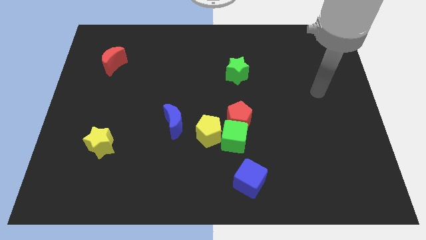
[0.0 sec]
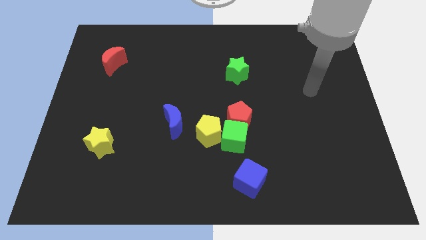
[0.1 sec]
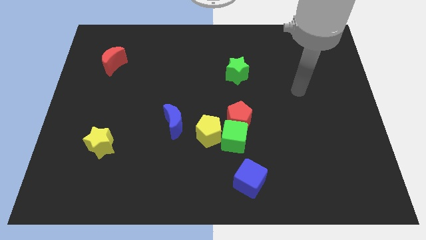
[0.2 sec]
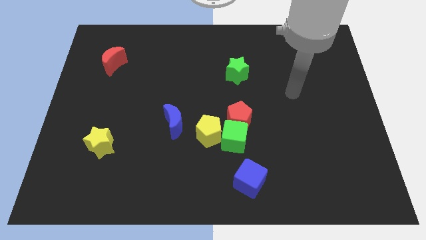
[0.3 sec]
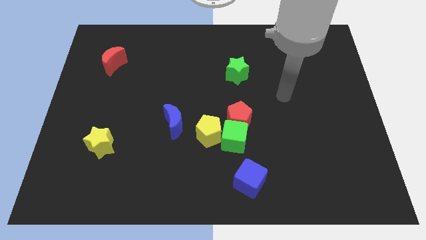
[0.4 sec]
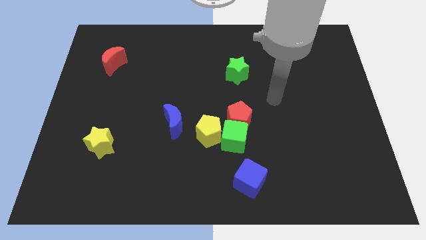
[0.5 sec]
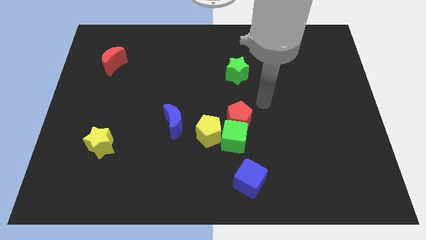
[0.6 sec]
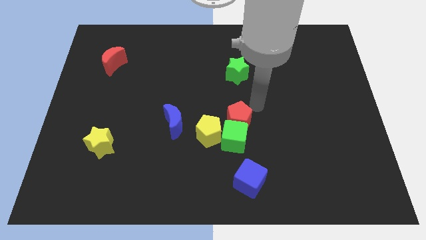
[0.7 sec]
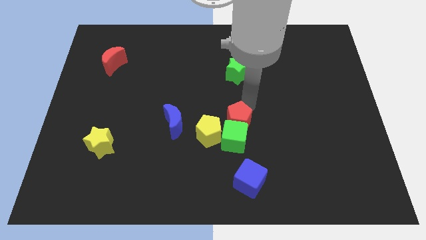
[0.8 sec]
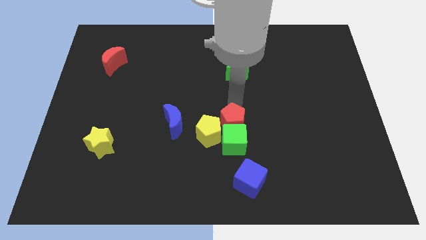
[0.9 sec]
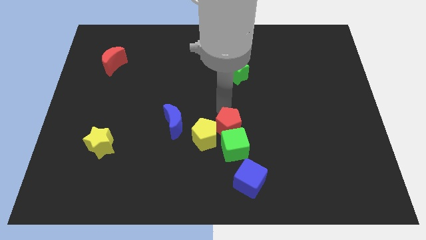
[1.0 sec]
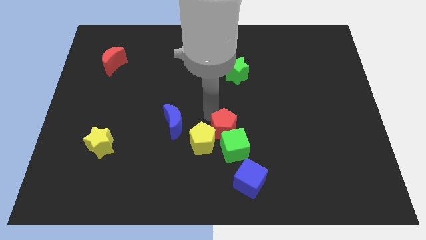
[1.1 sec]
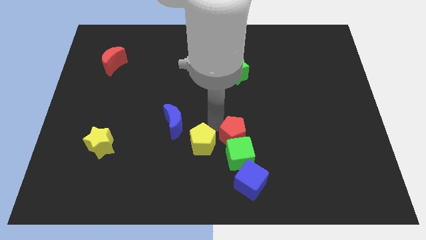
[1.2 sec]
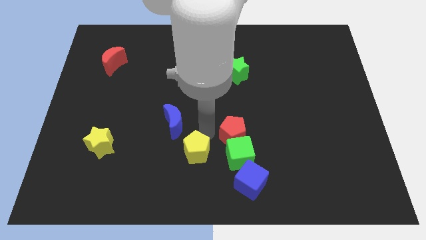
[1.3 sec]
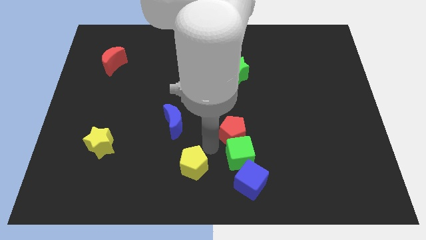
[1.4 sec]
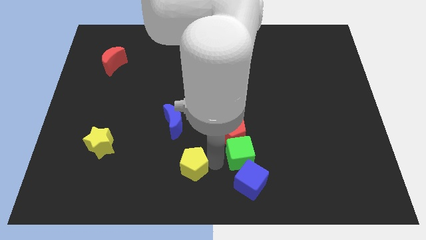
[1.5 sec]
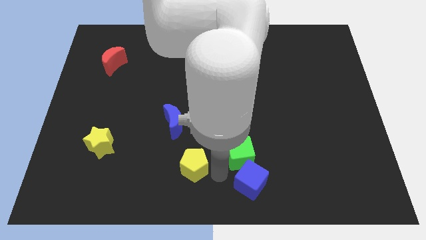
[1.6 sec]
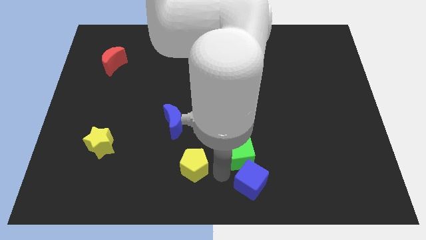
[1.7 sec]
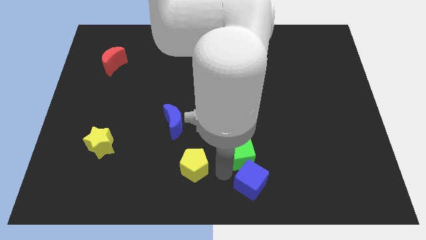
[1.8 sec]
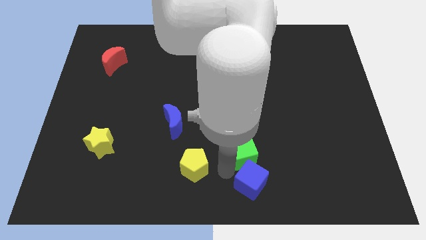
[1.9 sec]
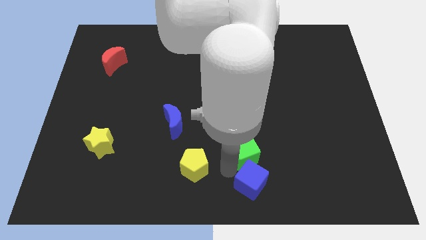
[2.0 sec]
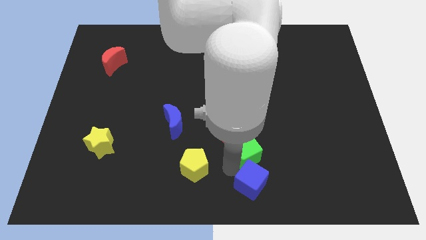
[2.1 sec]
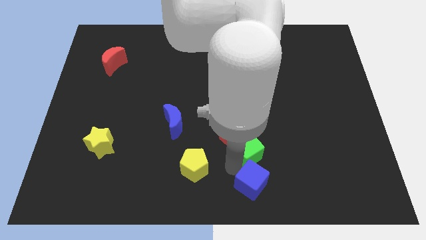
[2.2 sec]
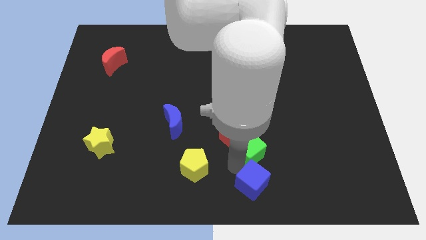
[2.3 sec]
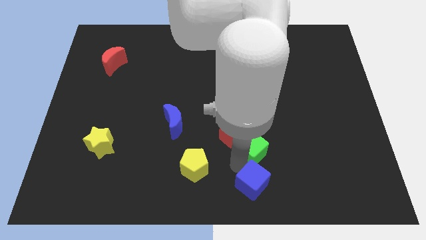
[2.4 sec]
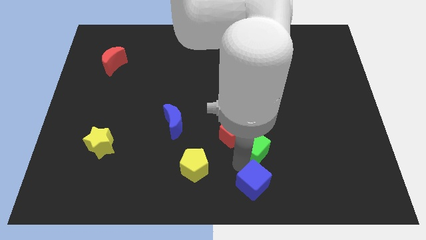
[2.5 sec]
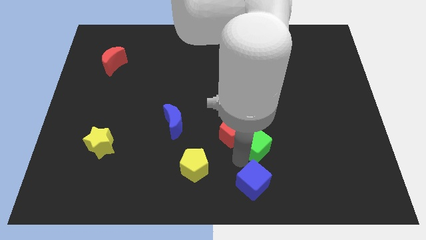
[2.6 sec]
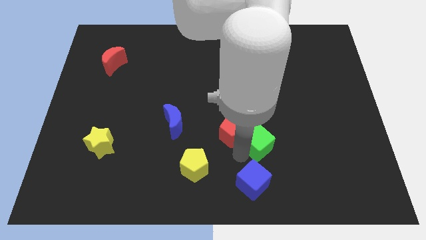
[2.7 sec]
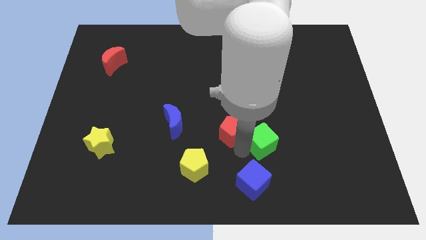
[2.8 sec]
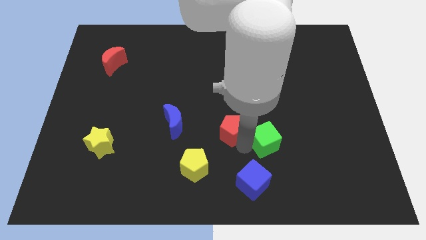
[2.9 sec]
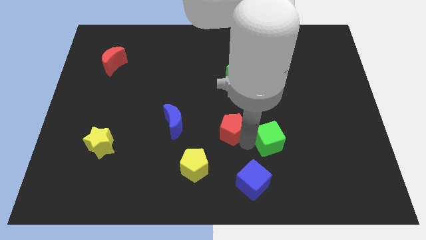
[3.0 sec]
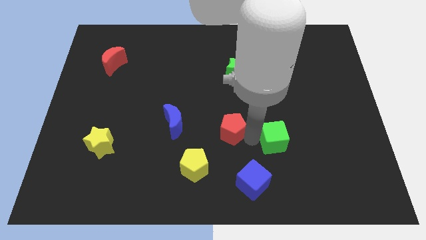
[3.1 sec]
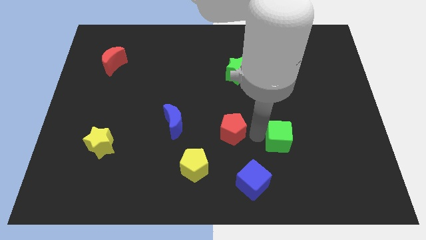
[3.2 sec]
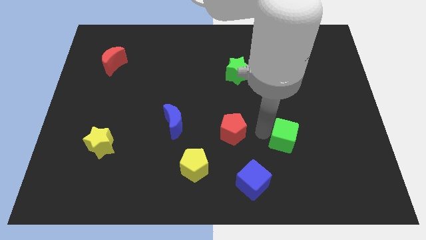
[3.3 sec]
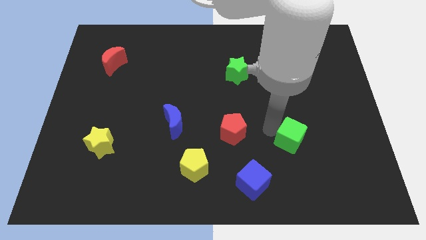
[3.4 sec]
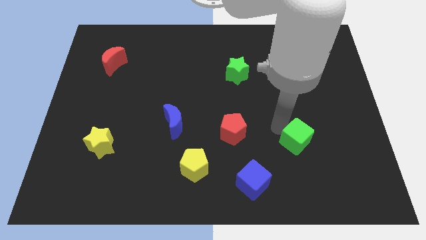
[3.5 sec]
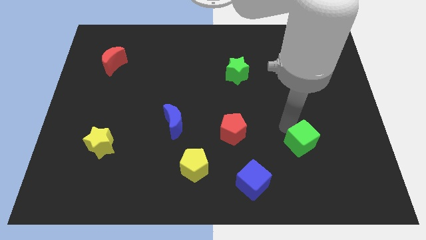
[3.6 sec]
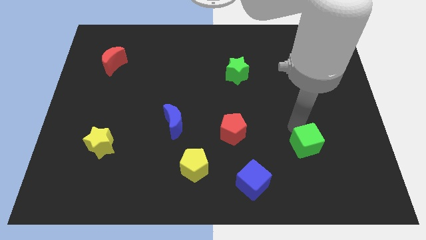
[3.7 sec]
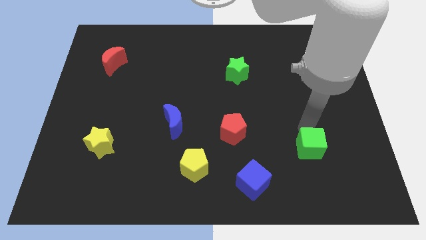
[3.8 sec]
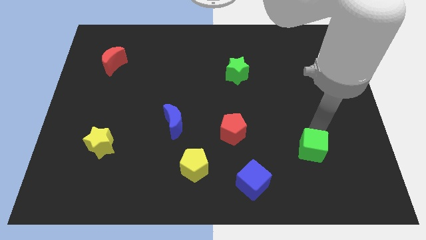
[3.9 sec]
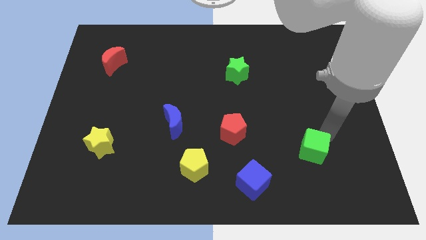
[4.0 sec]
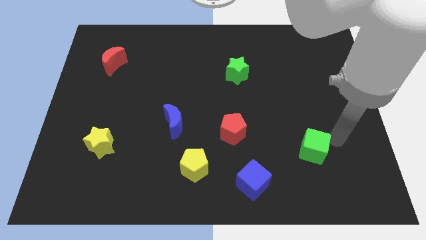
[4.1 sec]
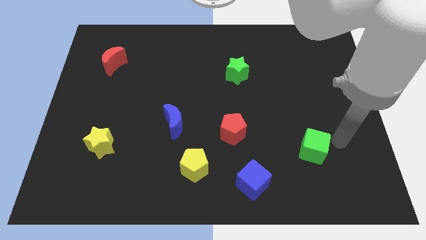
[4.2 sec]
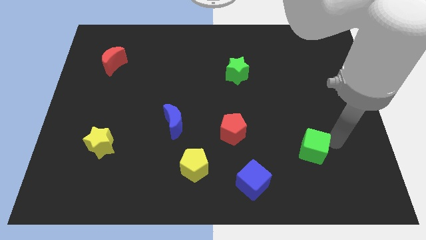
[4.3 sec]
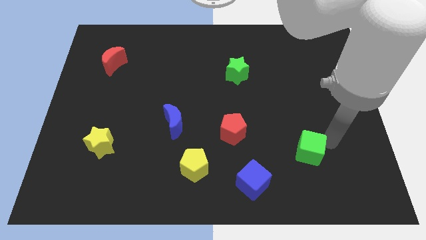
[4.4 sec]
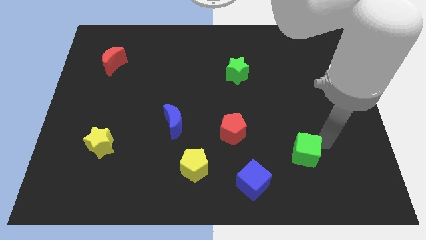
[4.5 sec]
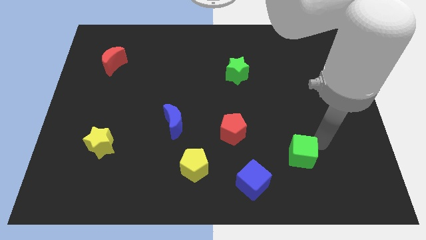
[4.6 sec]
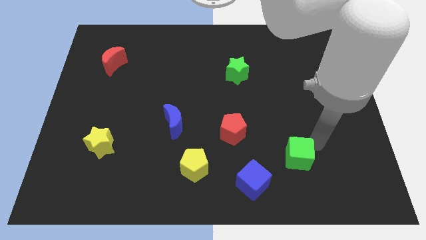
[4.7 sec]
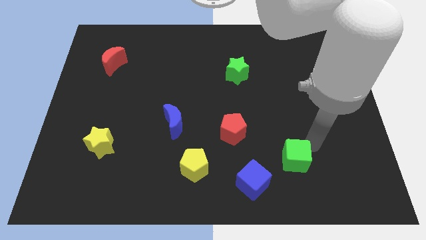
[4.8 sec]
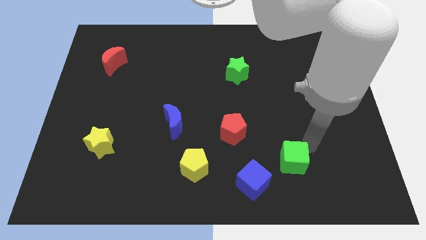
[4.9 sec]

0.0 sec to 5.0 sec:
slide the green cube to the right of the blue cube

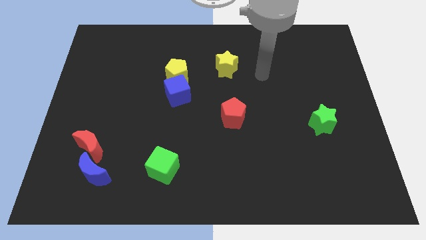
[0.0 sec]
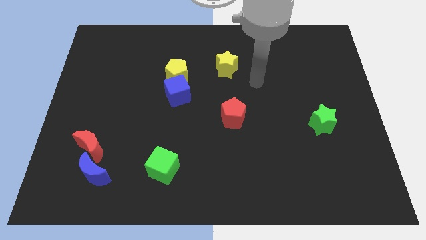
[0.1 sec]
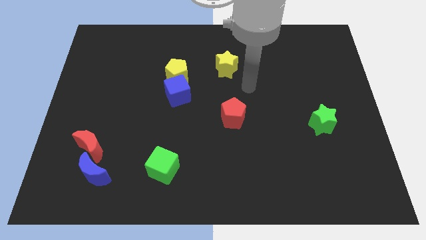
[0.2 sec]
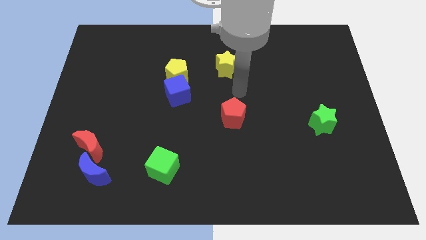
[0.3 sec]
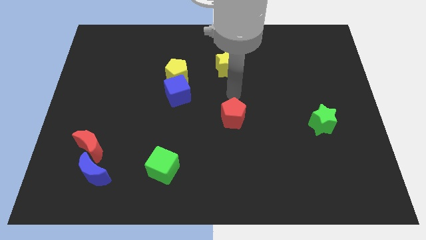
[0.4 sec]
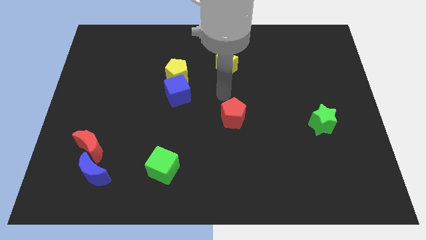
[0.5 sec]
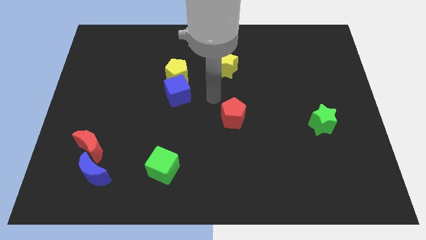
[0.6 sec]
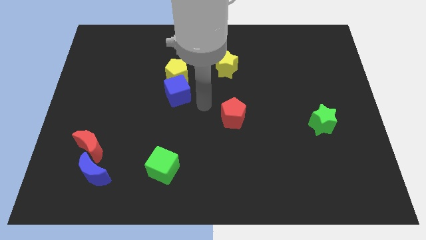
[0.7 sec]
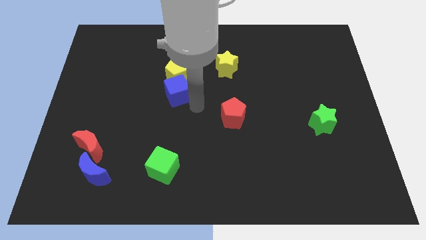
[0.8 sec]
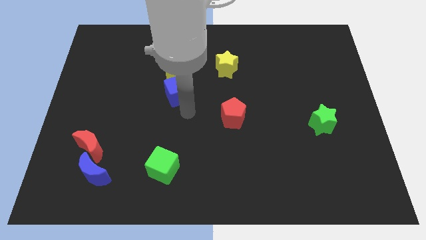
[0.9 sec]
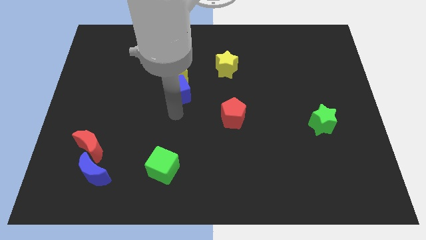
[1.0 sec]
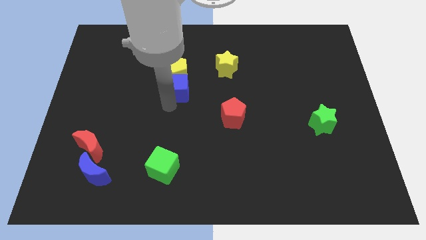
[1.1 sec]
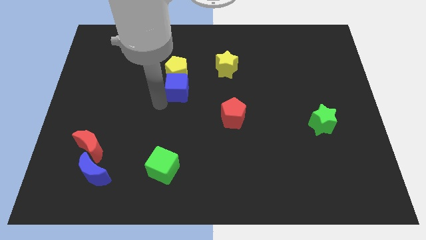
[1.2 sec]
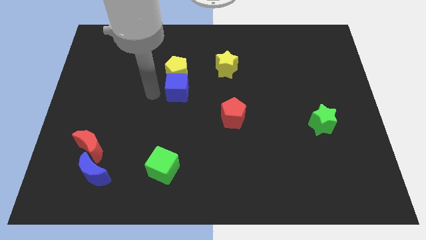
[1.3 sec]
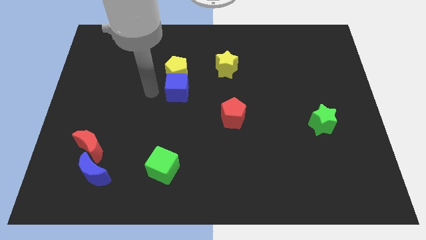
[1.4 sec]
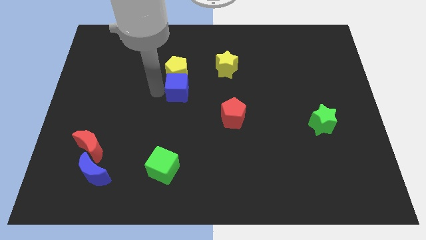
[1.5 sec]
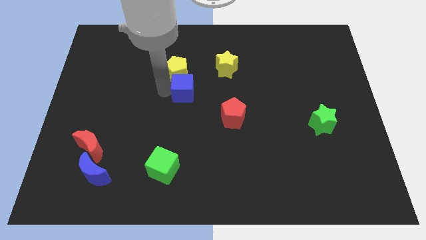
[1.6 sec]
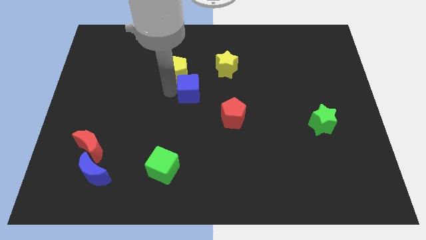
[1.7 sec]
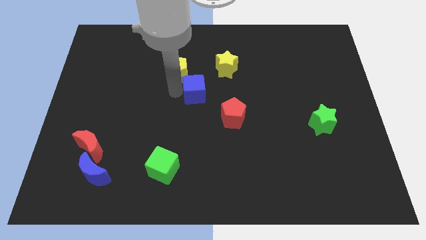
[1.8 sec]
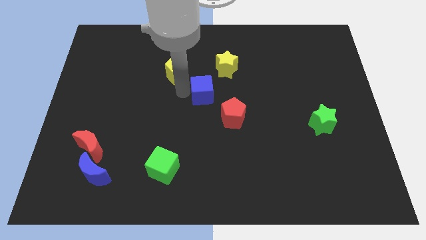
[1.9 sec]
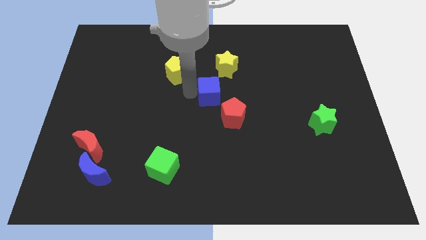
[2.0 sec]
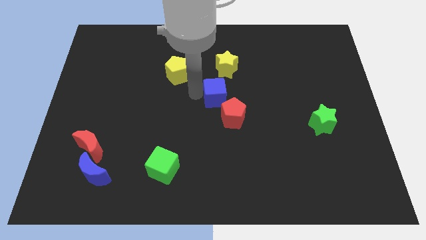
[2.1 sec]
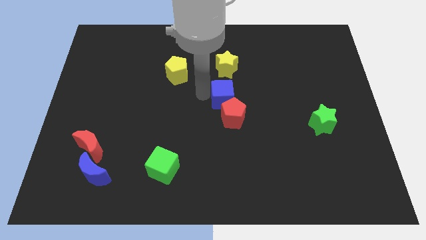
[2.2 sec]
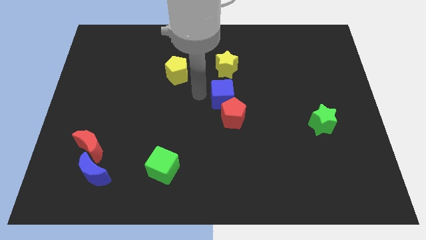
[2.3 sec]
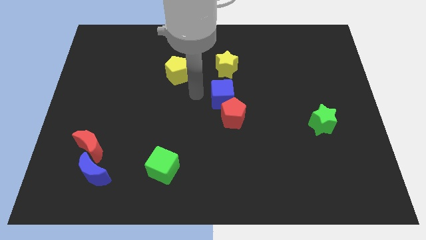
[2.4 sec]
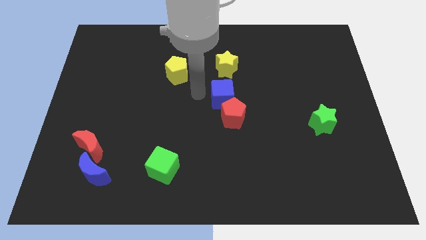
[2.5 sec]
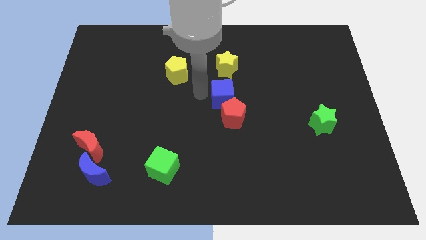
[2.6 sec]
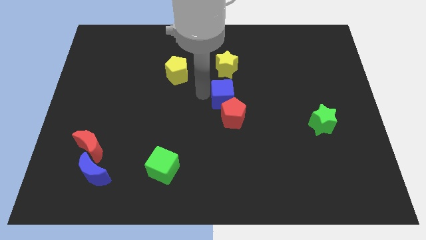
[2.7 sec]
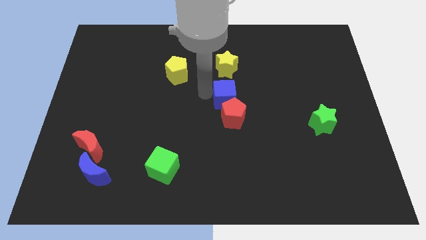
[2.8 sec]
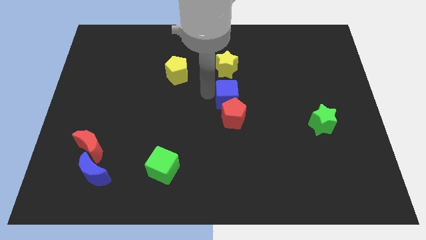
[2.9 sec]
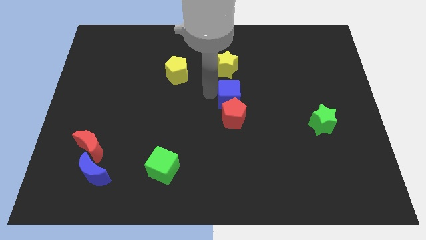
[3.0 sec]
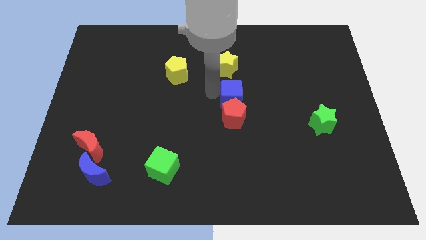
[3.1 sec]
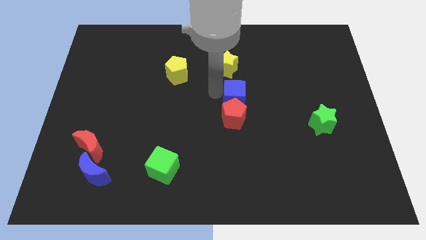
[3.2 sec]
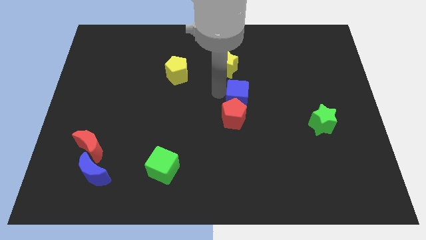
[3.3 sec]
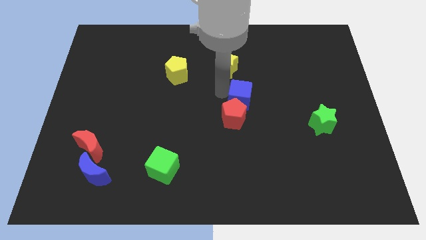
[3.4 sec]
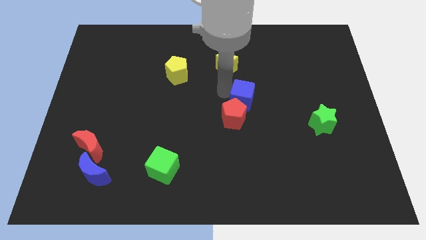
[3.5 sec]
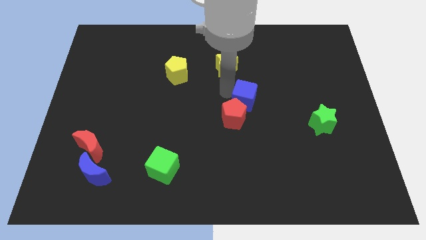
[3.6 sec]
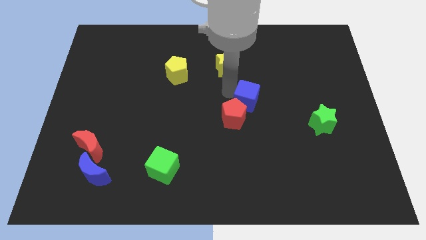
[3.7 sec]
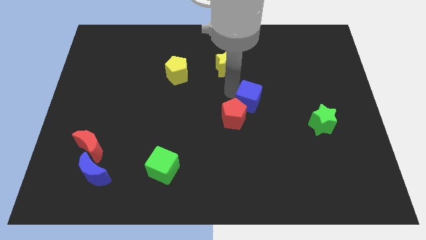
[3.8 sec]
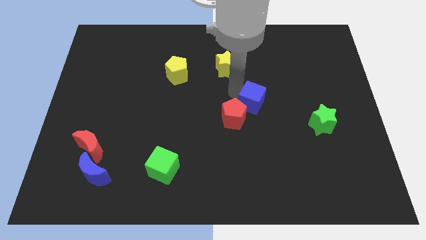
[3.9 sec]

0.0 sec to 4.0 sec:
slide the blue cube to the right side of the red pentagon
